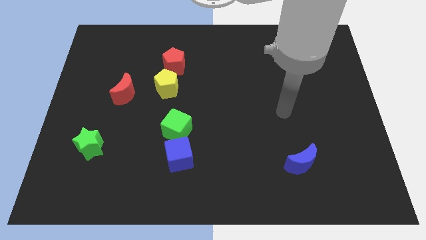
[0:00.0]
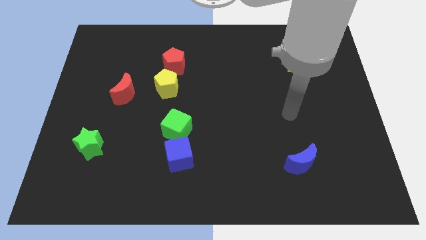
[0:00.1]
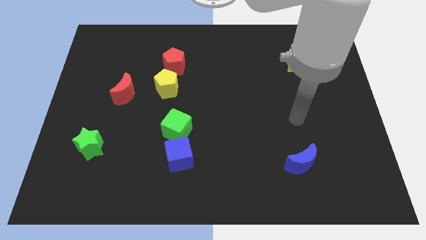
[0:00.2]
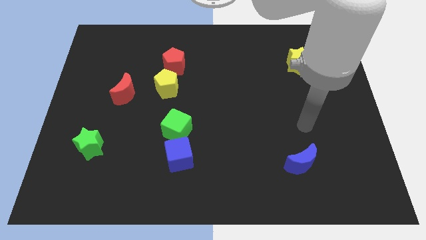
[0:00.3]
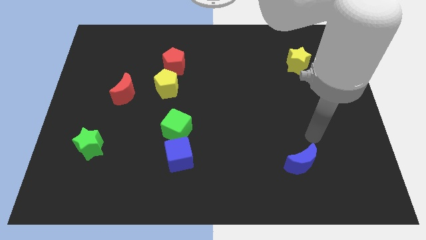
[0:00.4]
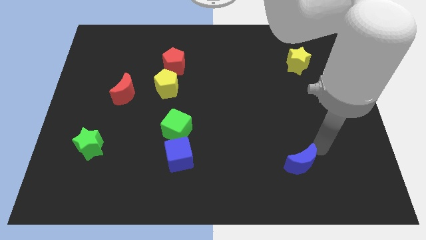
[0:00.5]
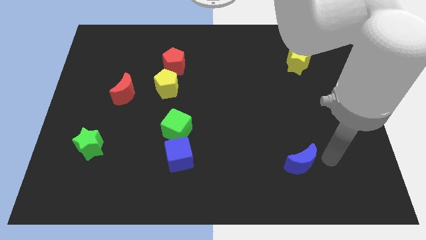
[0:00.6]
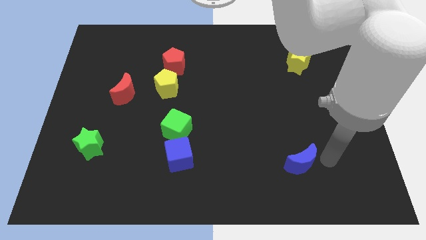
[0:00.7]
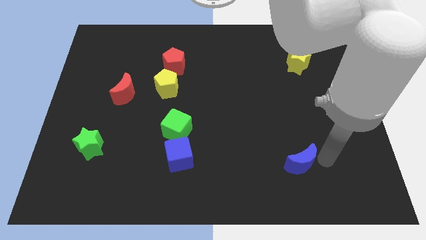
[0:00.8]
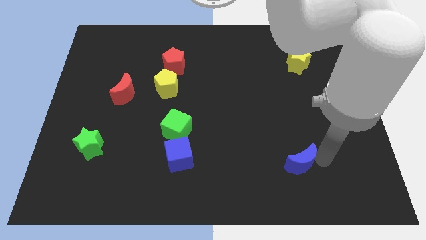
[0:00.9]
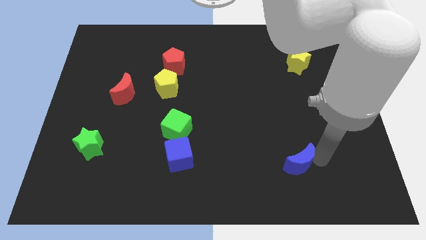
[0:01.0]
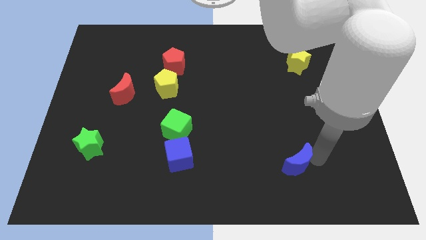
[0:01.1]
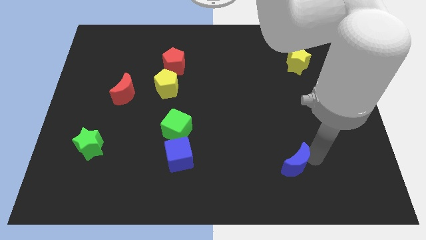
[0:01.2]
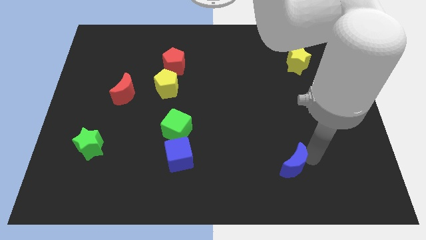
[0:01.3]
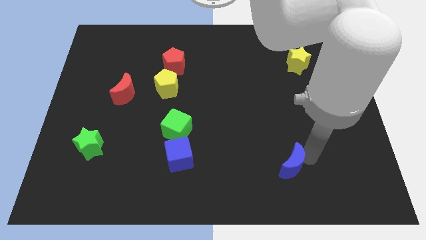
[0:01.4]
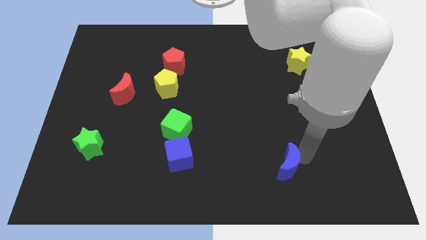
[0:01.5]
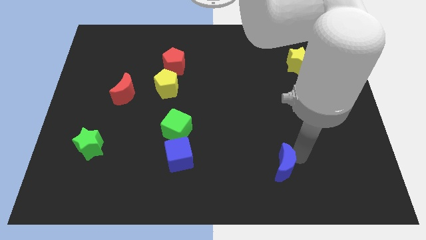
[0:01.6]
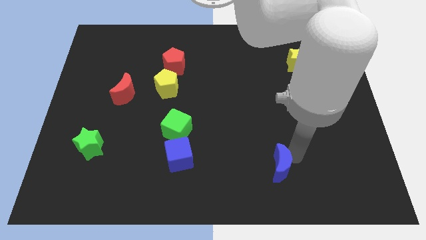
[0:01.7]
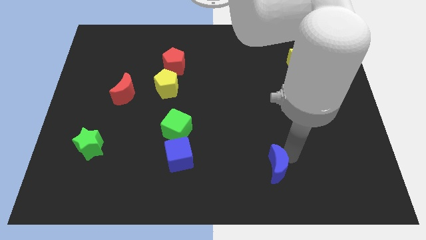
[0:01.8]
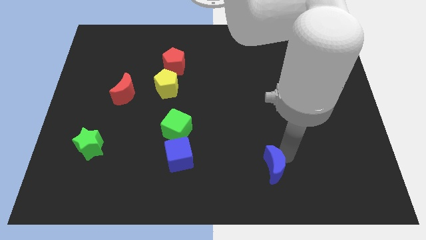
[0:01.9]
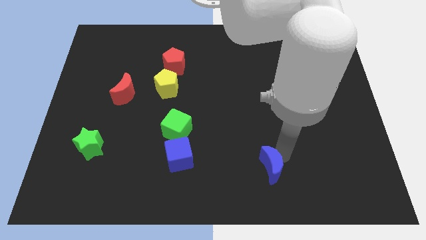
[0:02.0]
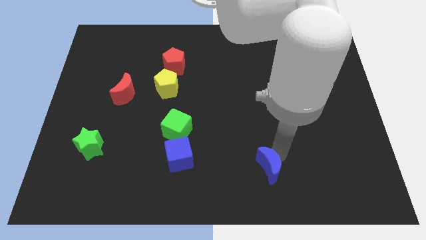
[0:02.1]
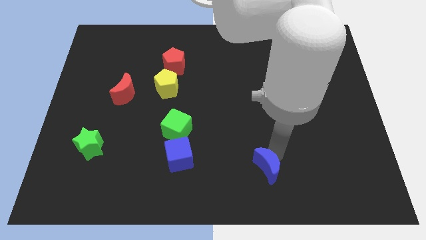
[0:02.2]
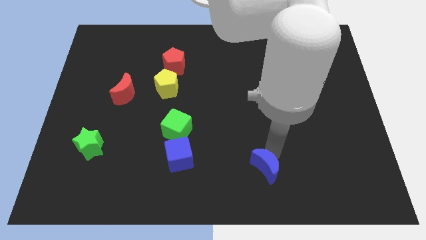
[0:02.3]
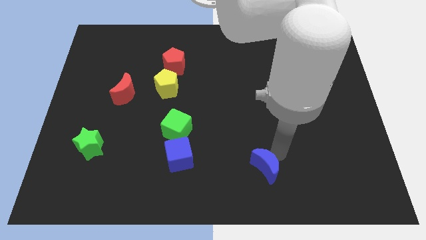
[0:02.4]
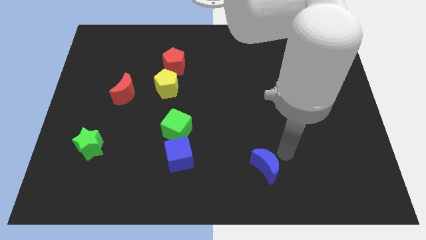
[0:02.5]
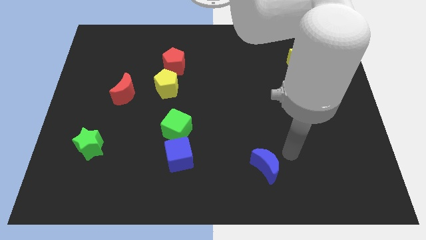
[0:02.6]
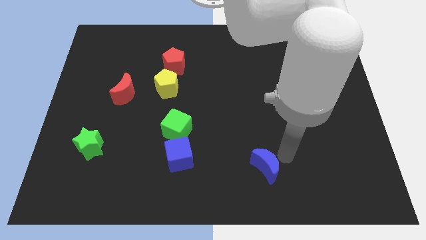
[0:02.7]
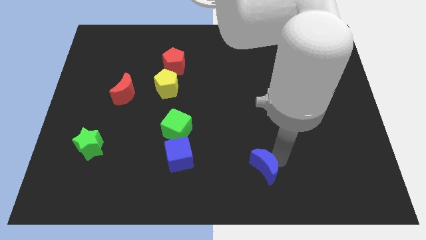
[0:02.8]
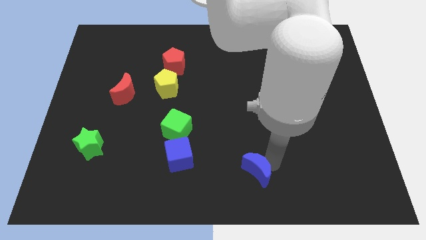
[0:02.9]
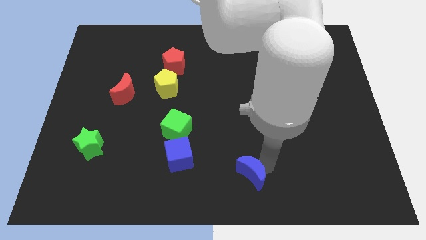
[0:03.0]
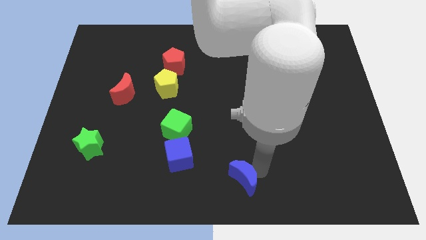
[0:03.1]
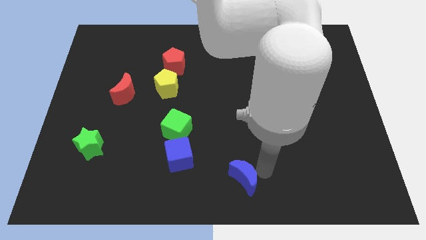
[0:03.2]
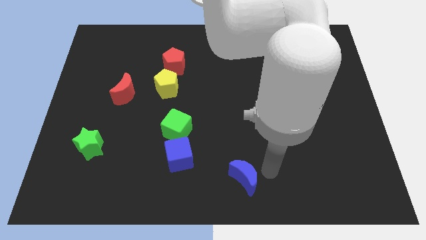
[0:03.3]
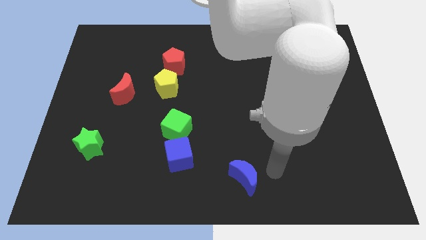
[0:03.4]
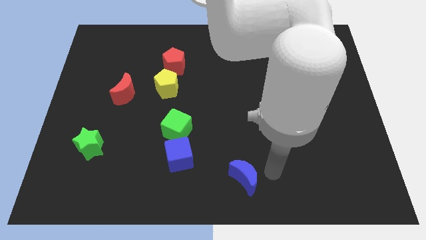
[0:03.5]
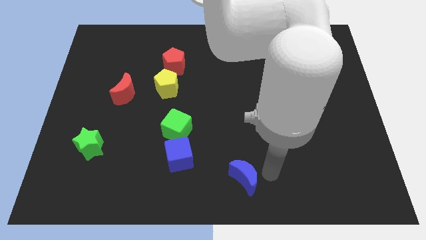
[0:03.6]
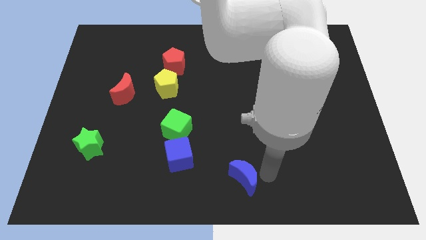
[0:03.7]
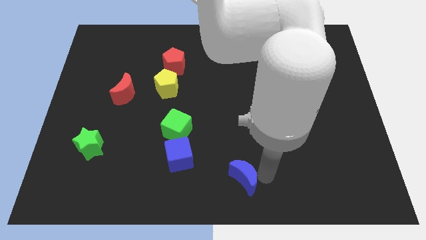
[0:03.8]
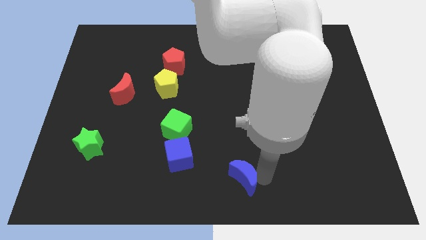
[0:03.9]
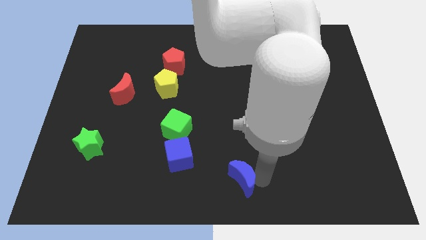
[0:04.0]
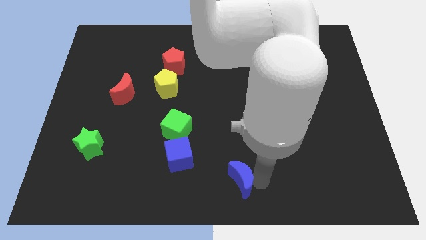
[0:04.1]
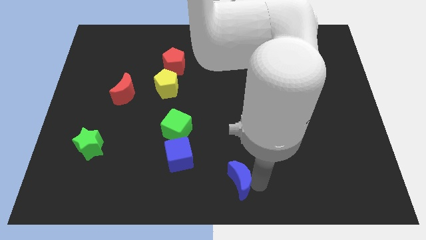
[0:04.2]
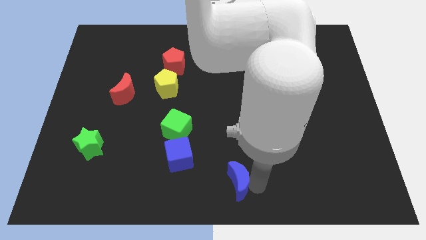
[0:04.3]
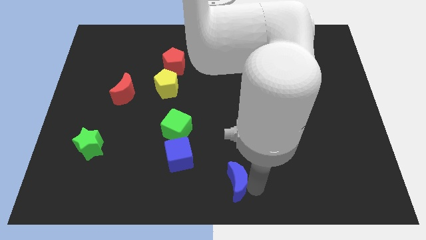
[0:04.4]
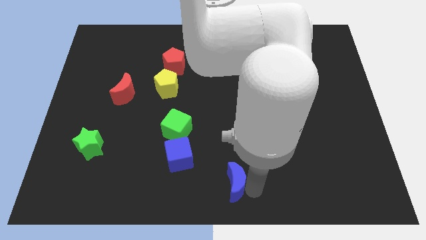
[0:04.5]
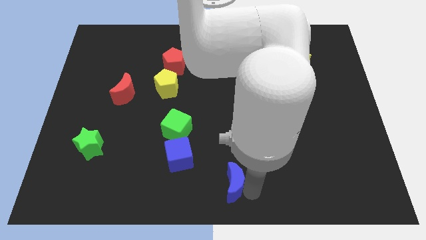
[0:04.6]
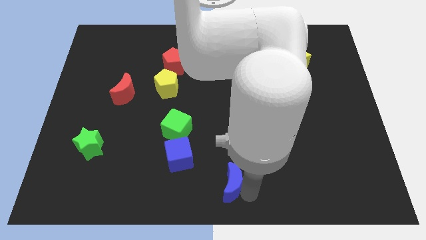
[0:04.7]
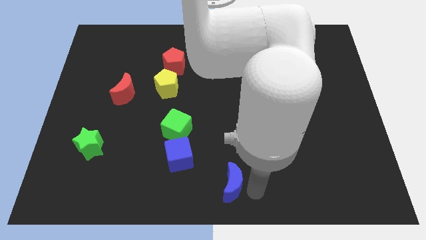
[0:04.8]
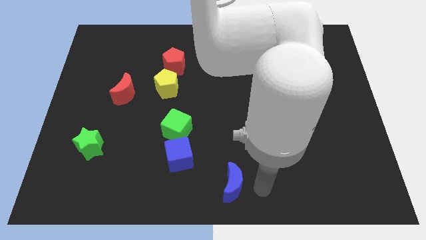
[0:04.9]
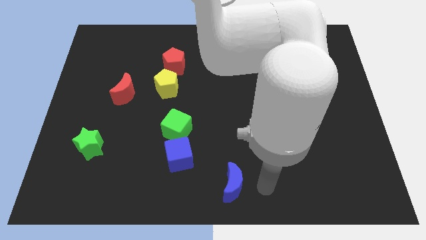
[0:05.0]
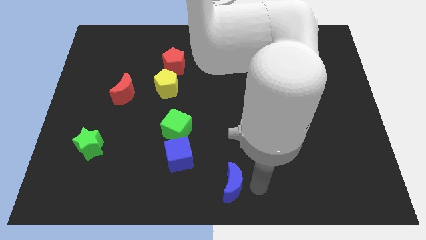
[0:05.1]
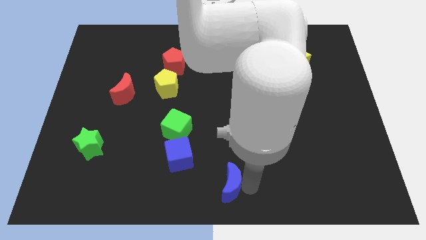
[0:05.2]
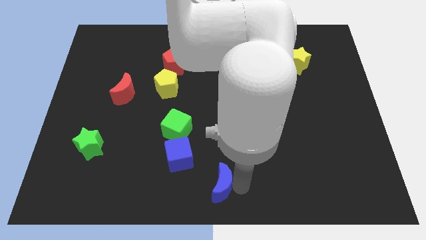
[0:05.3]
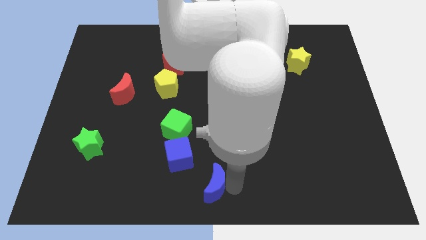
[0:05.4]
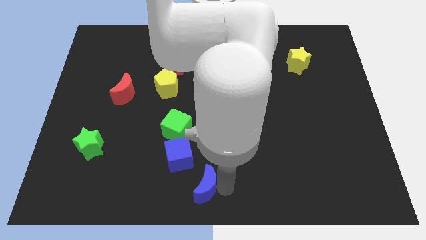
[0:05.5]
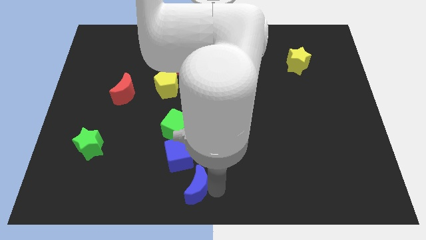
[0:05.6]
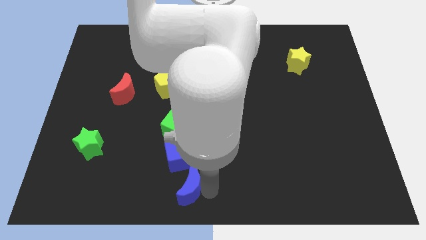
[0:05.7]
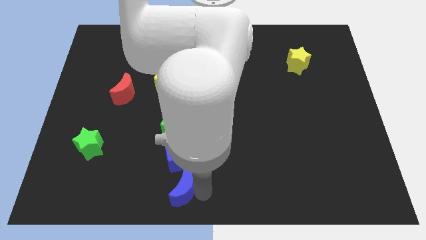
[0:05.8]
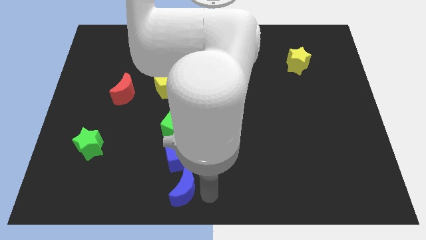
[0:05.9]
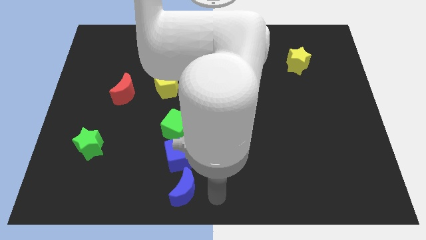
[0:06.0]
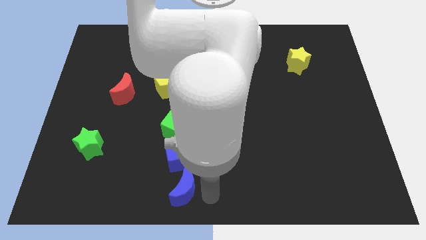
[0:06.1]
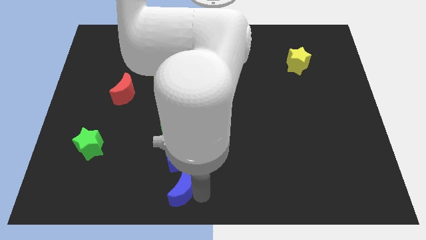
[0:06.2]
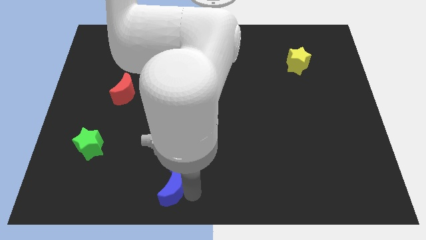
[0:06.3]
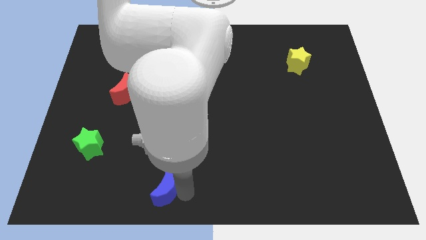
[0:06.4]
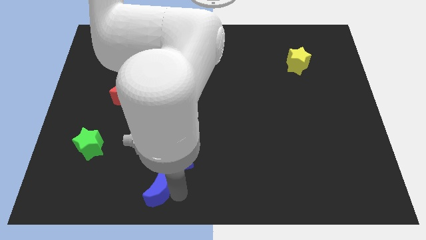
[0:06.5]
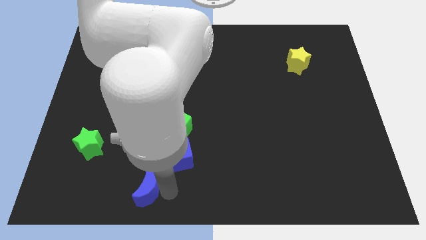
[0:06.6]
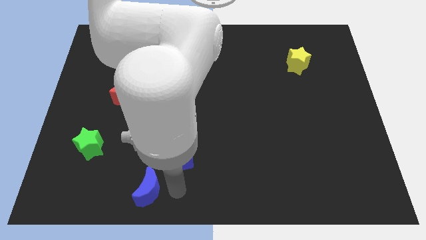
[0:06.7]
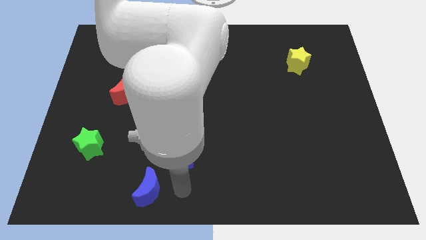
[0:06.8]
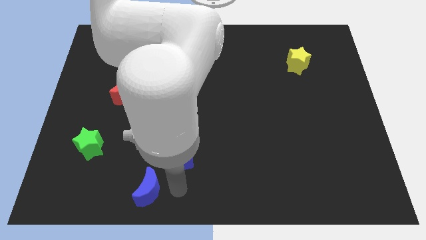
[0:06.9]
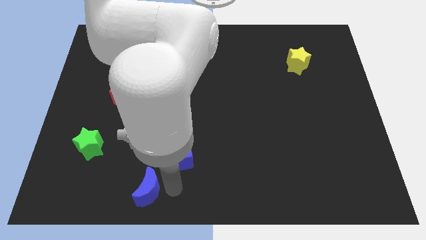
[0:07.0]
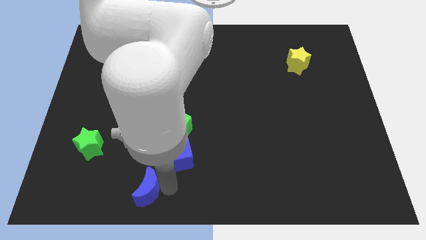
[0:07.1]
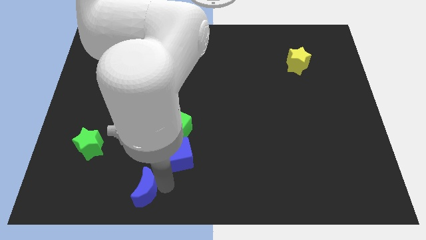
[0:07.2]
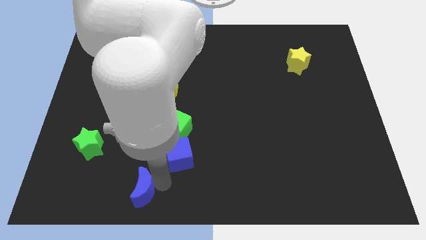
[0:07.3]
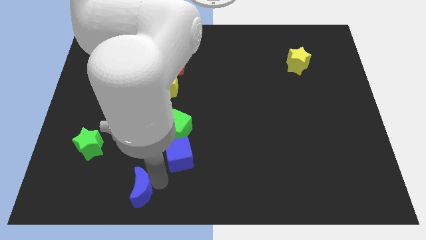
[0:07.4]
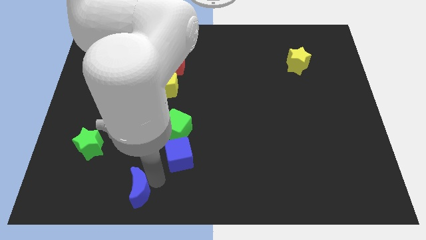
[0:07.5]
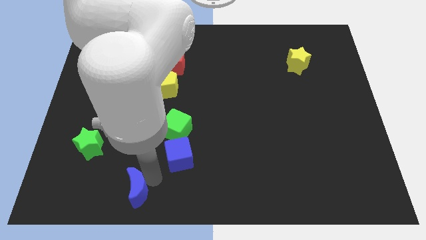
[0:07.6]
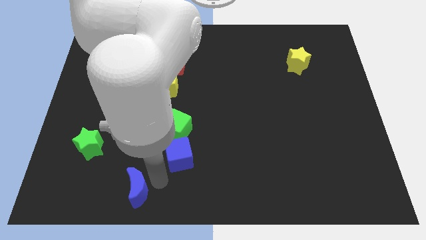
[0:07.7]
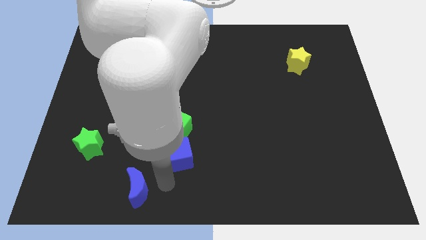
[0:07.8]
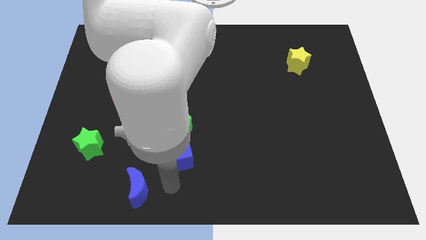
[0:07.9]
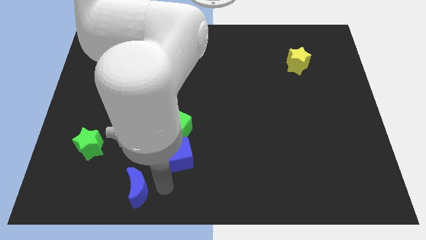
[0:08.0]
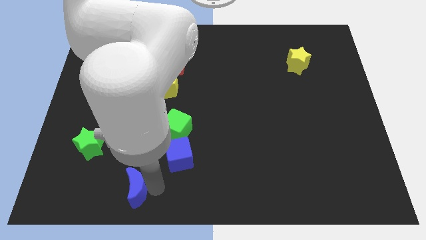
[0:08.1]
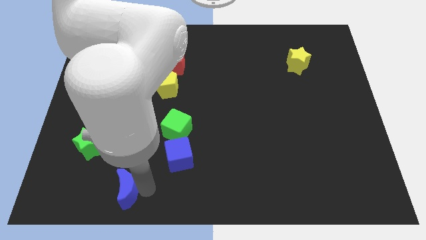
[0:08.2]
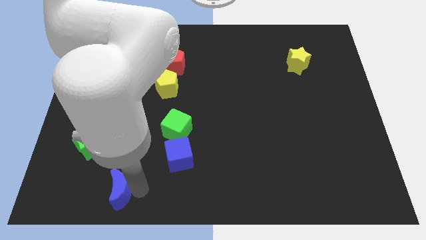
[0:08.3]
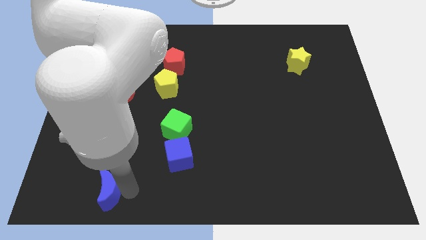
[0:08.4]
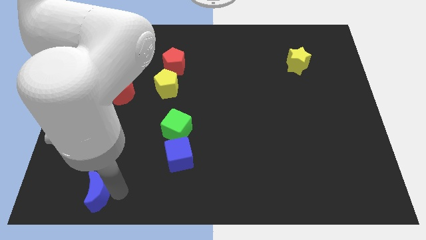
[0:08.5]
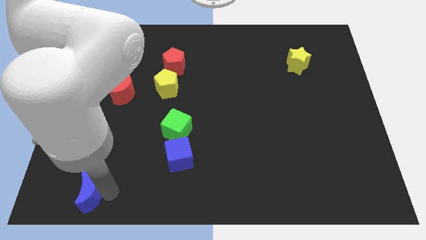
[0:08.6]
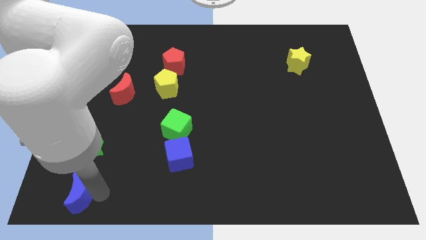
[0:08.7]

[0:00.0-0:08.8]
put the blue moon to the bottom left corner
